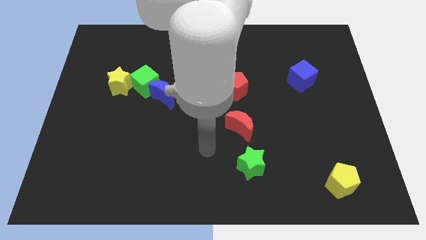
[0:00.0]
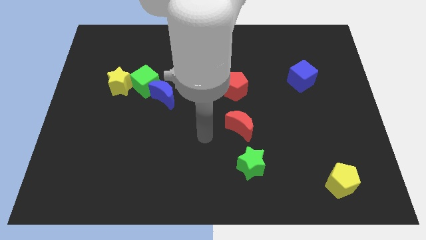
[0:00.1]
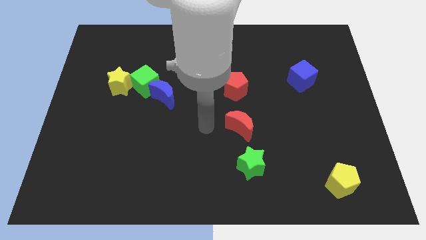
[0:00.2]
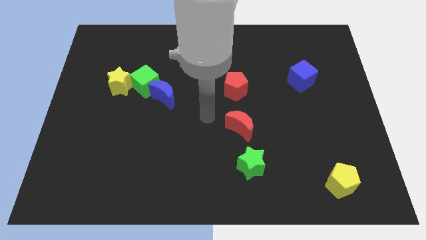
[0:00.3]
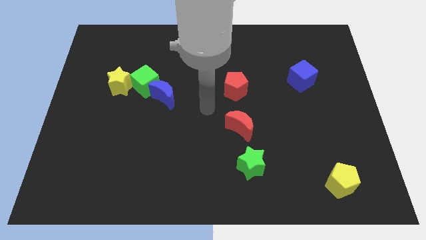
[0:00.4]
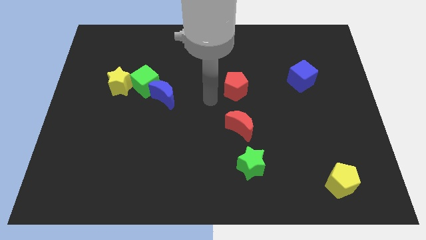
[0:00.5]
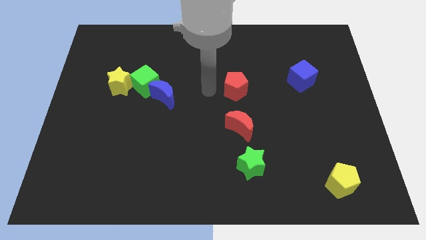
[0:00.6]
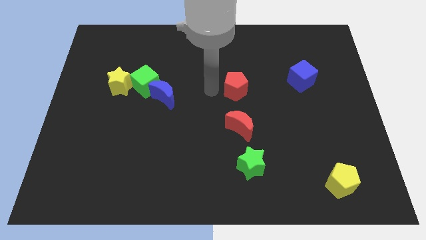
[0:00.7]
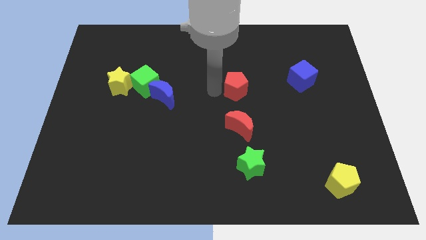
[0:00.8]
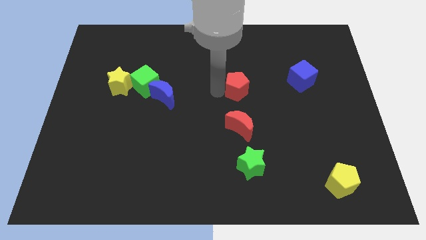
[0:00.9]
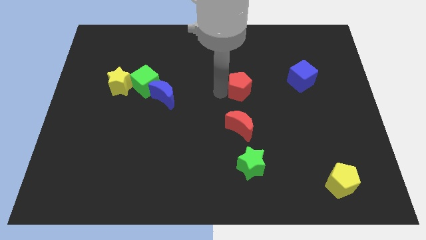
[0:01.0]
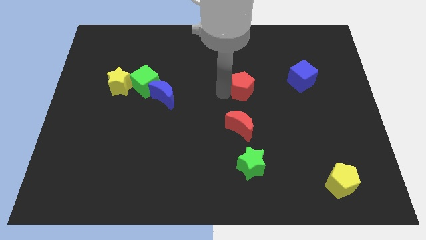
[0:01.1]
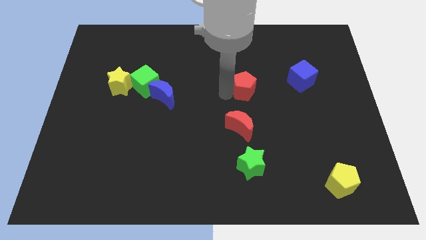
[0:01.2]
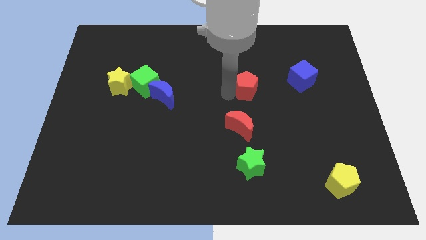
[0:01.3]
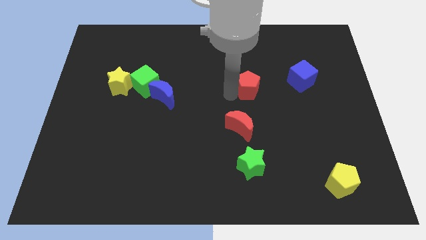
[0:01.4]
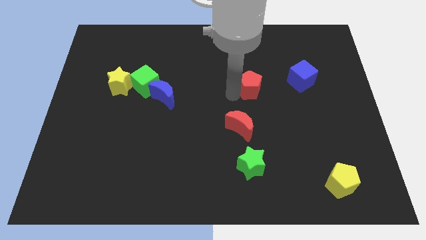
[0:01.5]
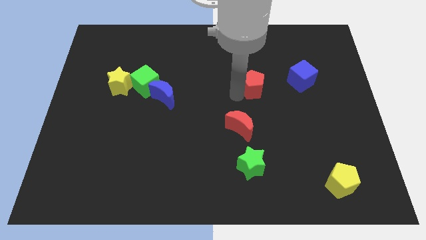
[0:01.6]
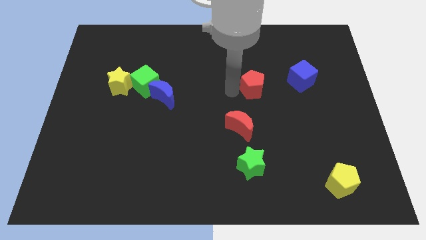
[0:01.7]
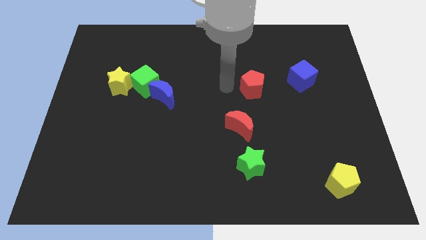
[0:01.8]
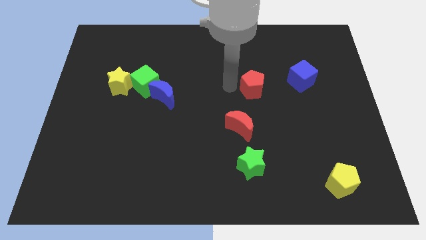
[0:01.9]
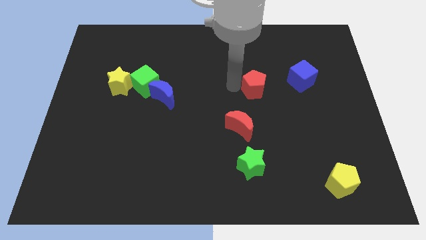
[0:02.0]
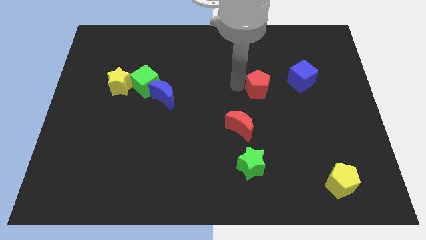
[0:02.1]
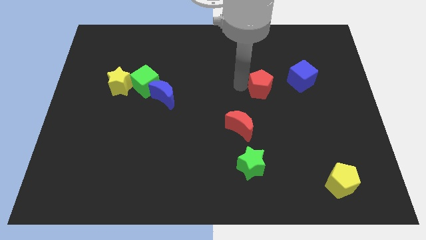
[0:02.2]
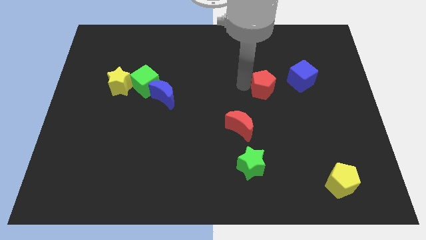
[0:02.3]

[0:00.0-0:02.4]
move the red pentagon slightly right

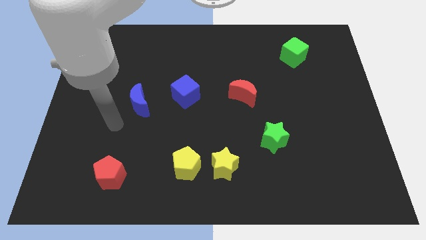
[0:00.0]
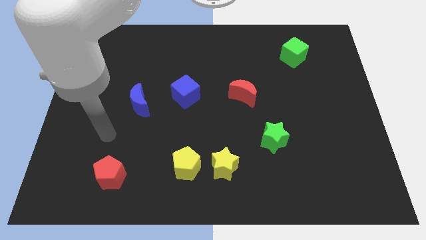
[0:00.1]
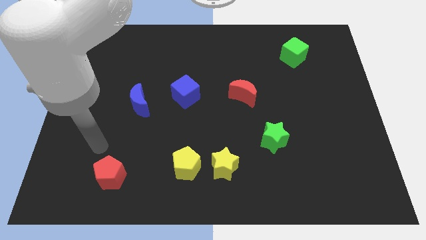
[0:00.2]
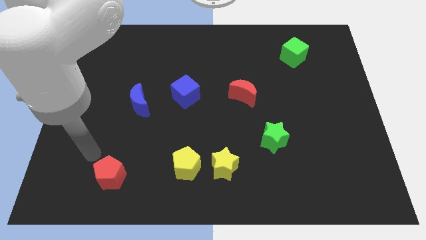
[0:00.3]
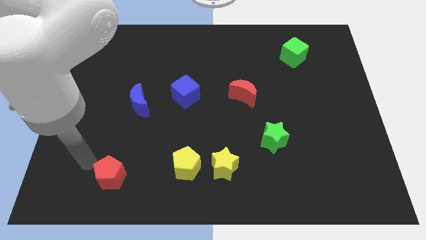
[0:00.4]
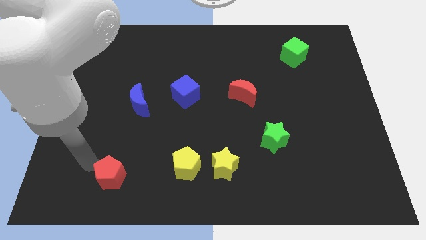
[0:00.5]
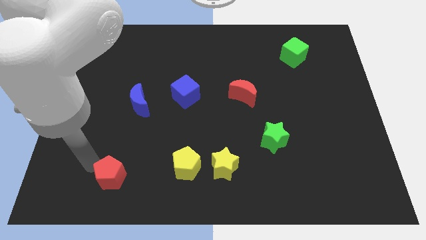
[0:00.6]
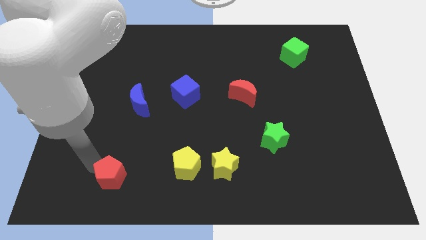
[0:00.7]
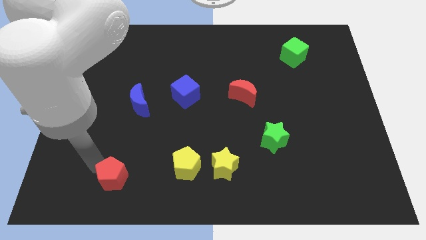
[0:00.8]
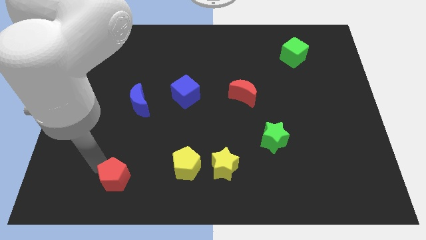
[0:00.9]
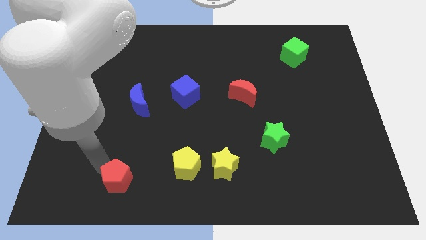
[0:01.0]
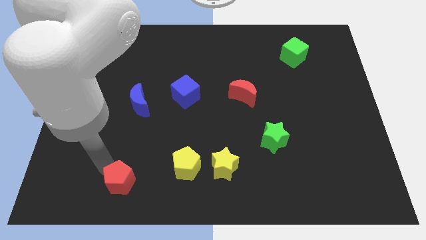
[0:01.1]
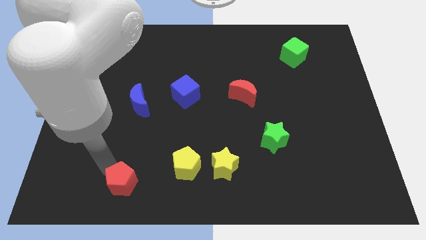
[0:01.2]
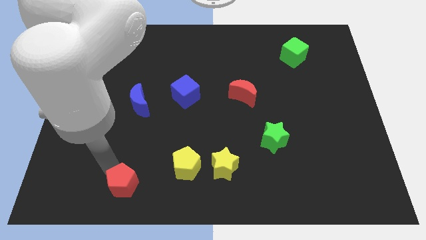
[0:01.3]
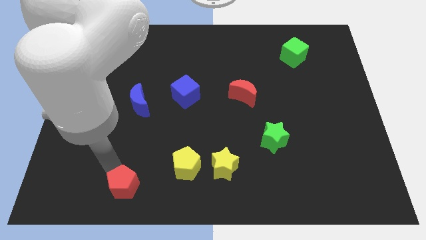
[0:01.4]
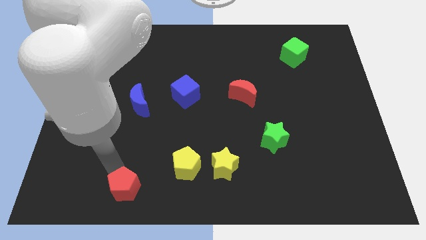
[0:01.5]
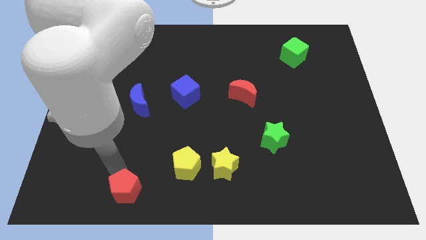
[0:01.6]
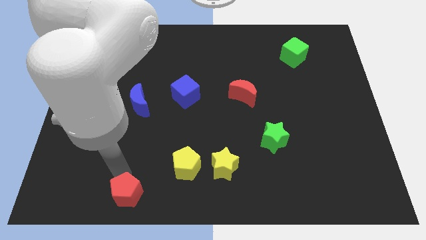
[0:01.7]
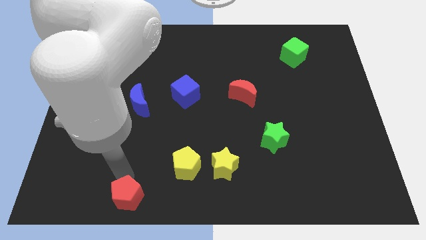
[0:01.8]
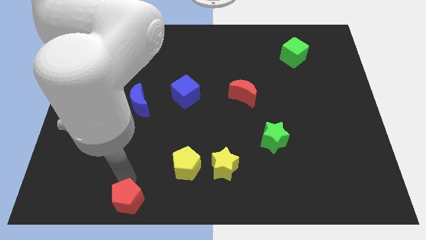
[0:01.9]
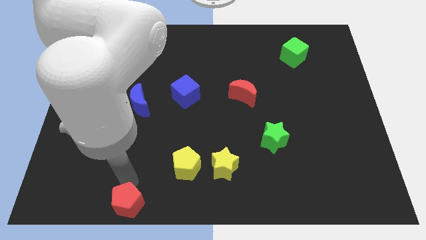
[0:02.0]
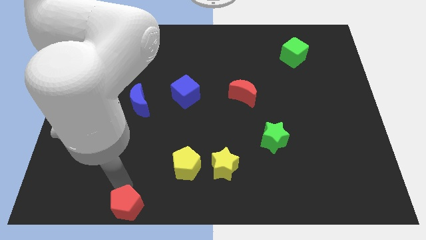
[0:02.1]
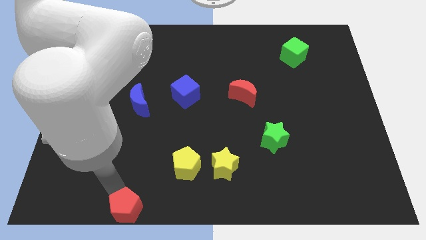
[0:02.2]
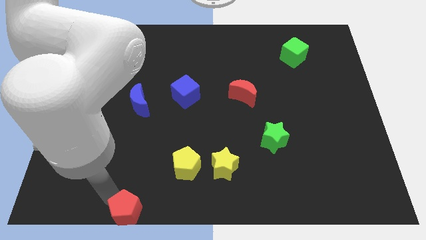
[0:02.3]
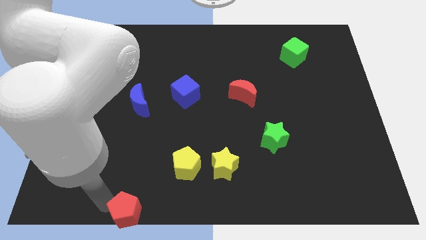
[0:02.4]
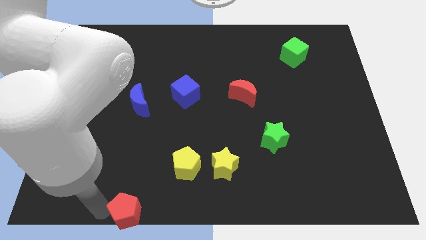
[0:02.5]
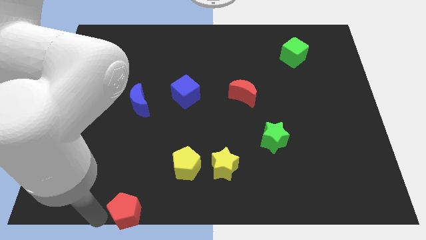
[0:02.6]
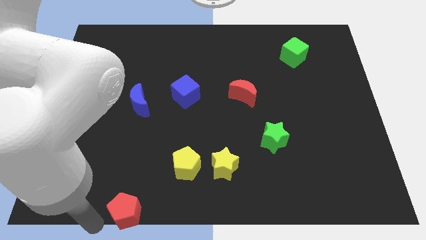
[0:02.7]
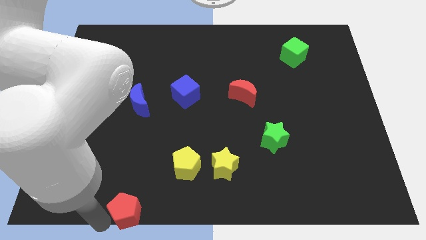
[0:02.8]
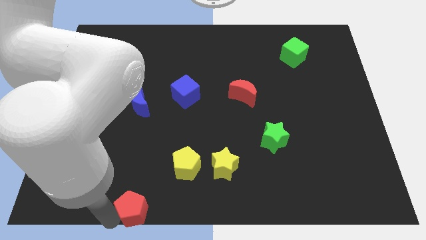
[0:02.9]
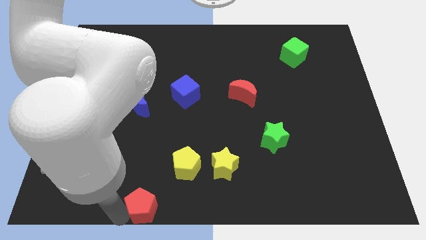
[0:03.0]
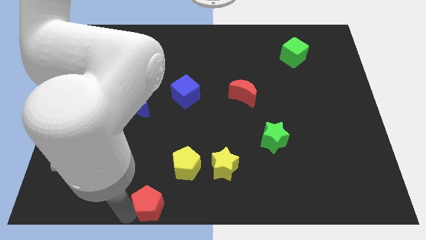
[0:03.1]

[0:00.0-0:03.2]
slightly move the red pentagon right

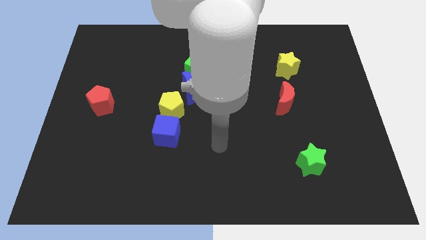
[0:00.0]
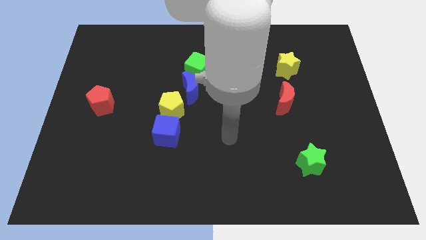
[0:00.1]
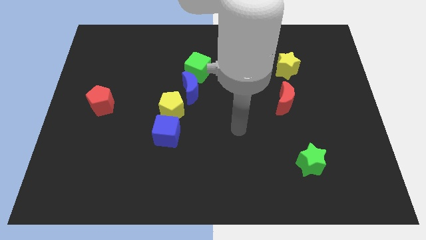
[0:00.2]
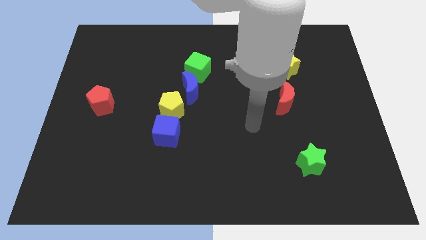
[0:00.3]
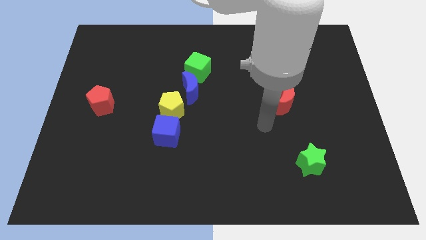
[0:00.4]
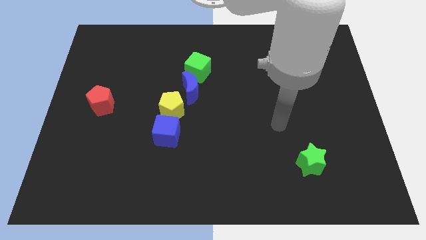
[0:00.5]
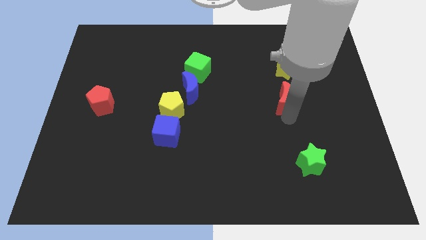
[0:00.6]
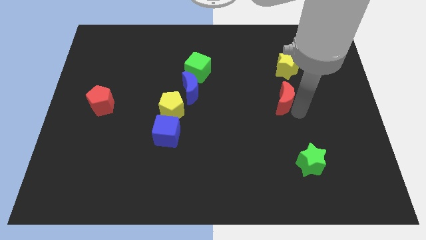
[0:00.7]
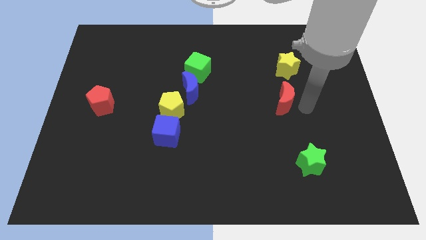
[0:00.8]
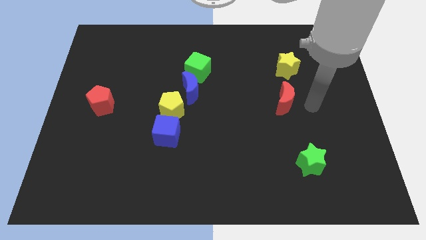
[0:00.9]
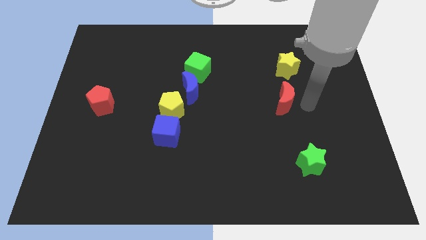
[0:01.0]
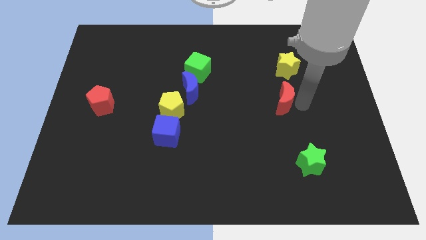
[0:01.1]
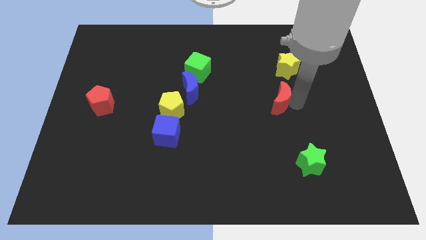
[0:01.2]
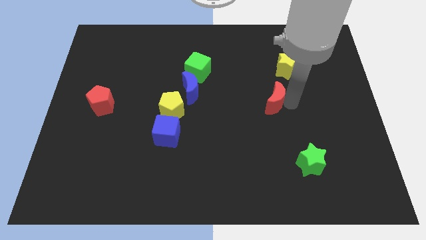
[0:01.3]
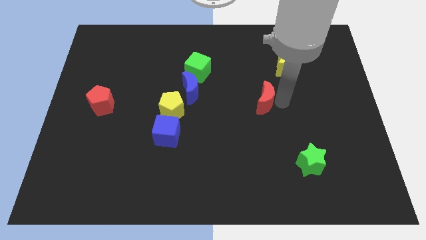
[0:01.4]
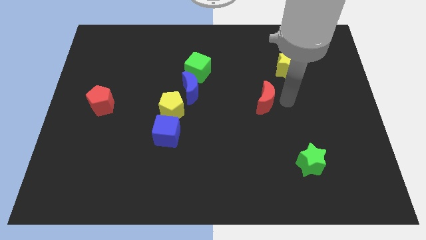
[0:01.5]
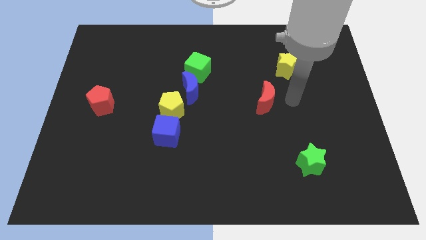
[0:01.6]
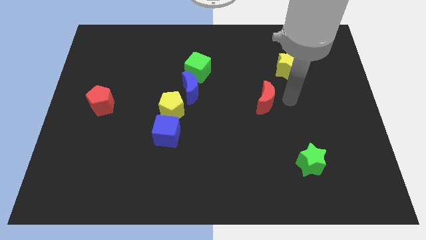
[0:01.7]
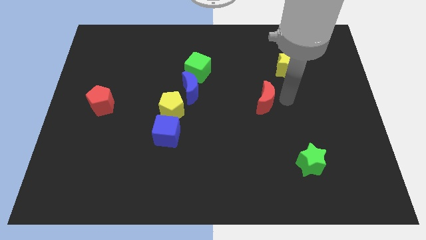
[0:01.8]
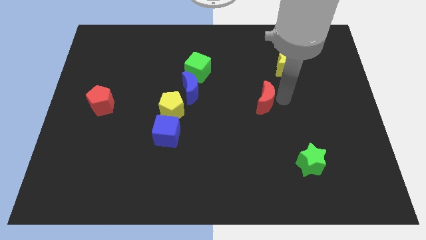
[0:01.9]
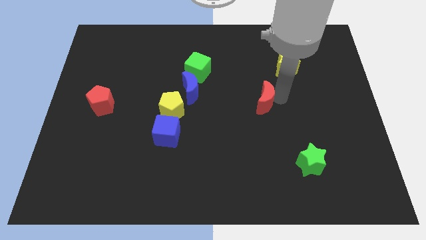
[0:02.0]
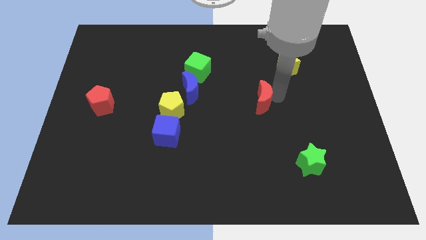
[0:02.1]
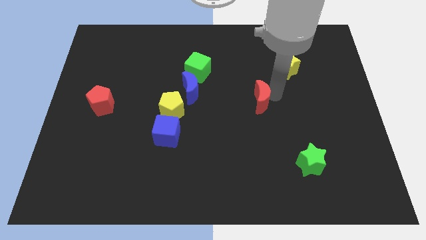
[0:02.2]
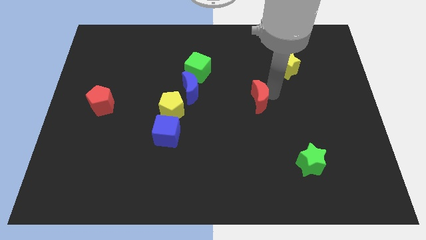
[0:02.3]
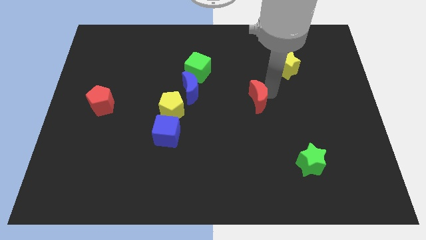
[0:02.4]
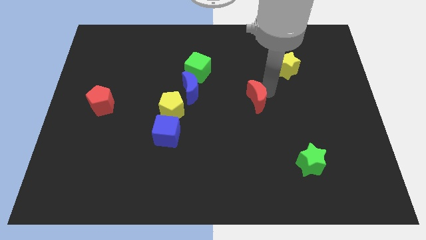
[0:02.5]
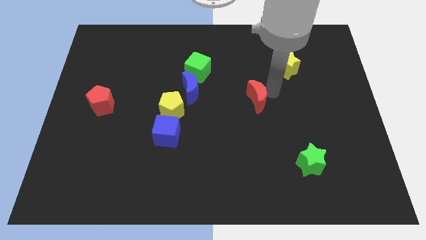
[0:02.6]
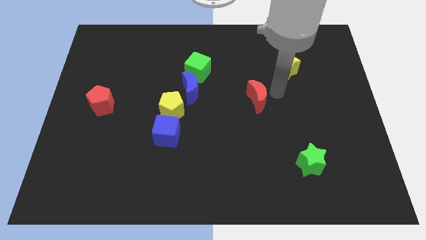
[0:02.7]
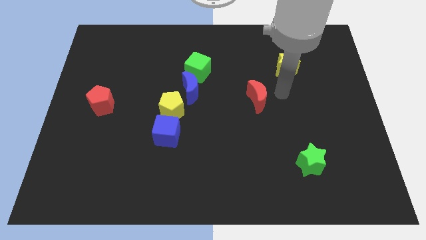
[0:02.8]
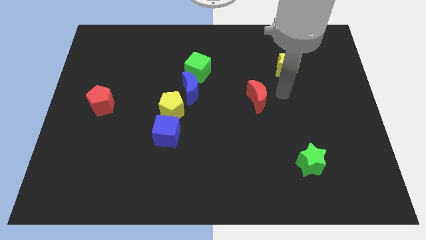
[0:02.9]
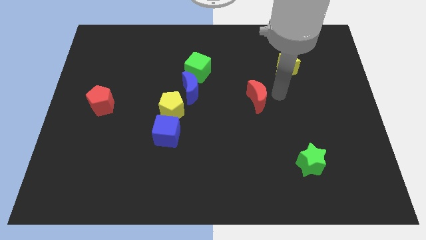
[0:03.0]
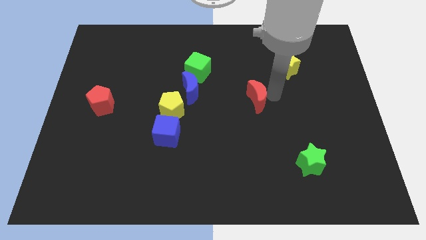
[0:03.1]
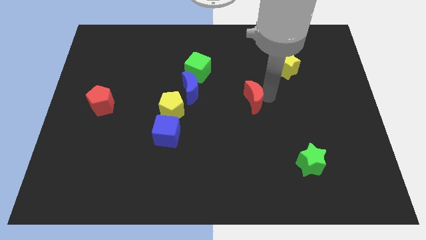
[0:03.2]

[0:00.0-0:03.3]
slightly move the red moon to the left
